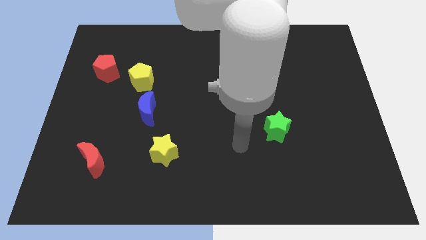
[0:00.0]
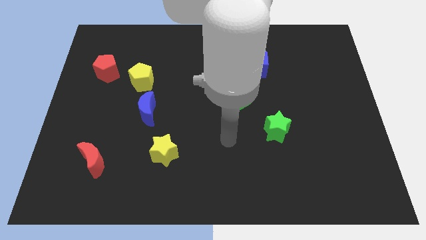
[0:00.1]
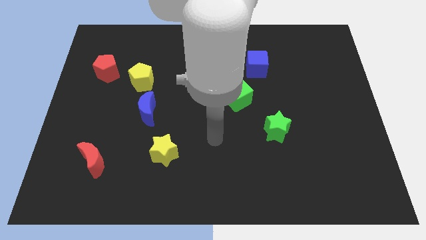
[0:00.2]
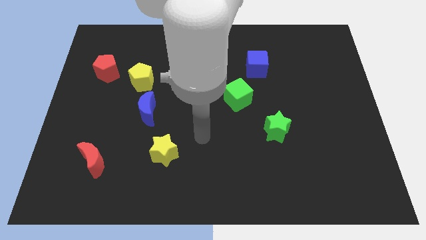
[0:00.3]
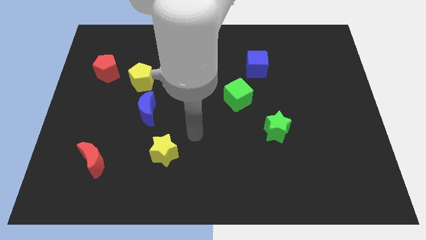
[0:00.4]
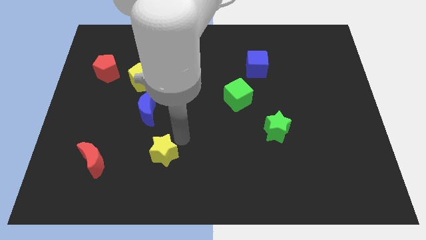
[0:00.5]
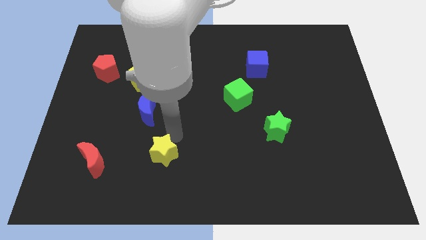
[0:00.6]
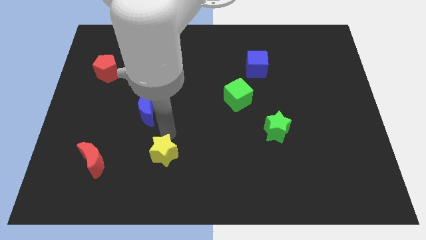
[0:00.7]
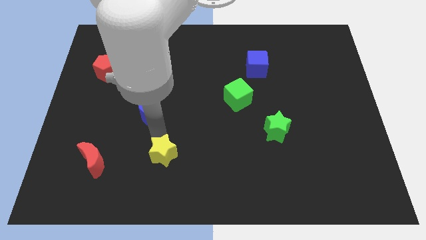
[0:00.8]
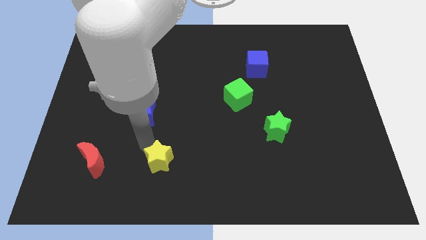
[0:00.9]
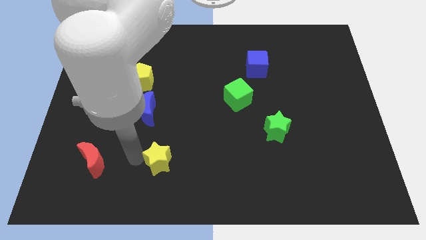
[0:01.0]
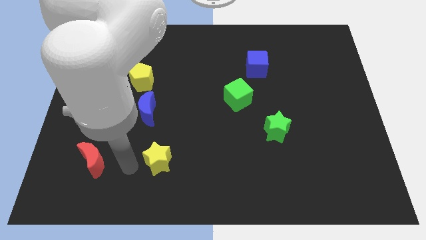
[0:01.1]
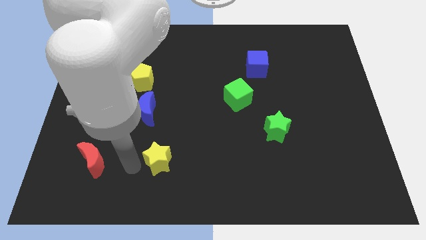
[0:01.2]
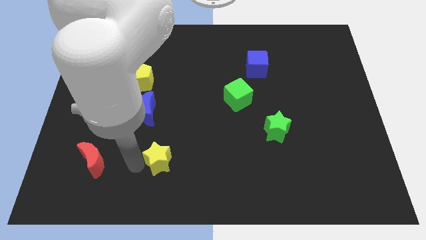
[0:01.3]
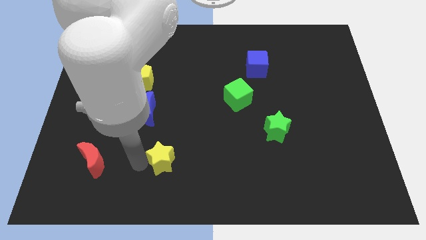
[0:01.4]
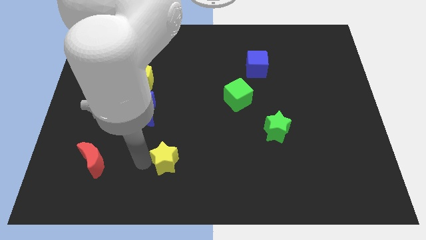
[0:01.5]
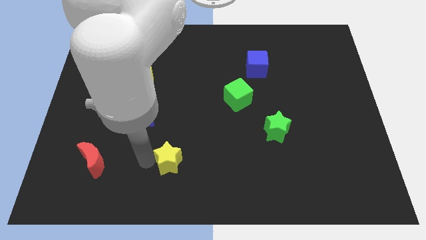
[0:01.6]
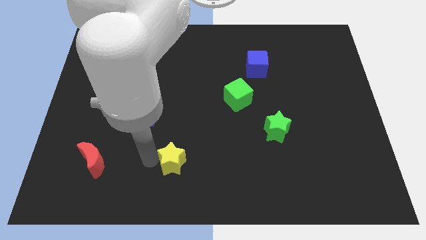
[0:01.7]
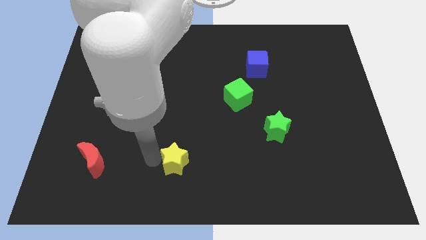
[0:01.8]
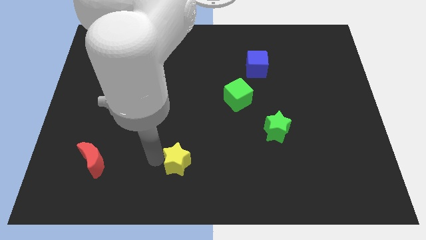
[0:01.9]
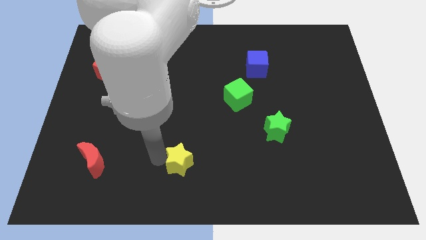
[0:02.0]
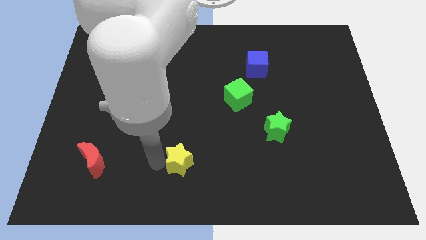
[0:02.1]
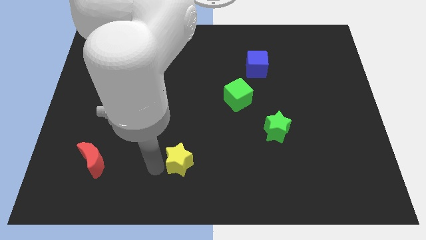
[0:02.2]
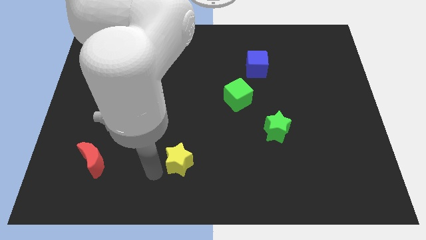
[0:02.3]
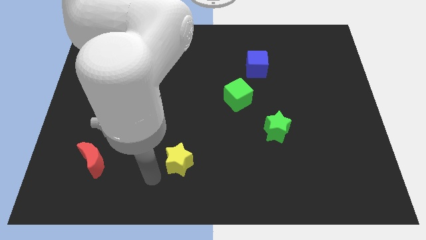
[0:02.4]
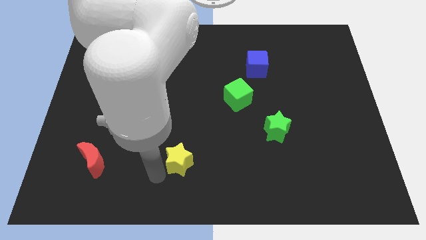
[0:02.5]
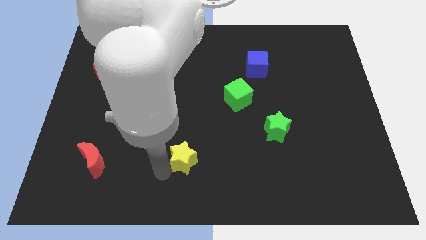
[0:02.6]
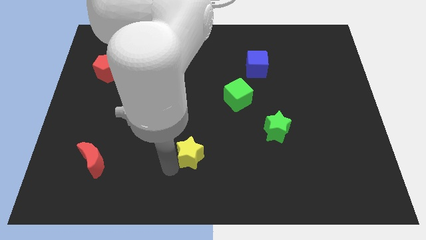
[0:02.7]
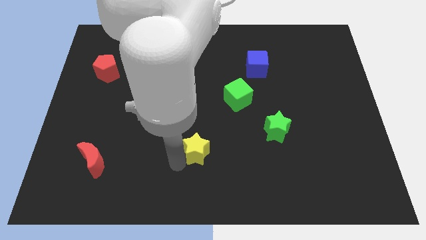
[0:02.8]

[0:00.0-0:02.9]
slightly move the yellow star to the right

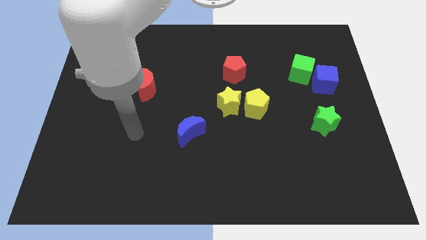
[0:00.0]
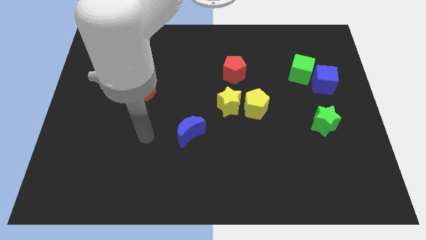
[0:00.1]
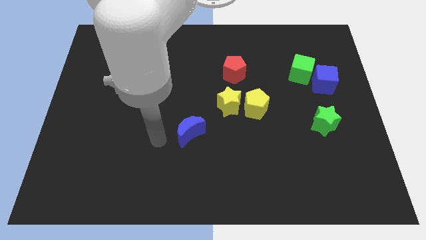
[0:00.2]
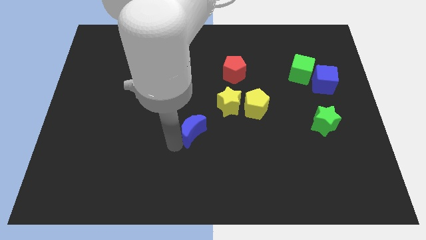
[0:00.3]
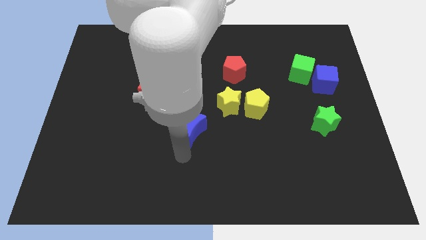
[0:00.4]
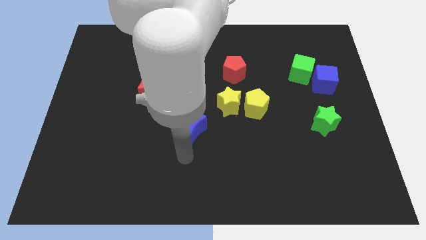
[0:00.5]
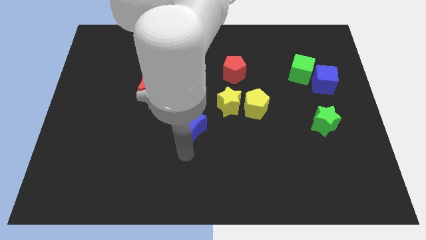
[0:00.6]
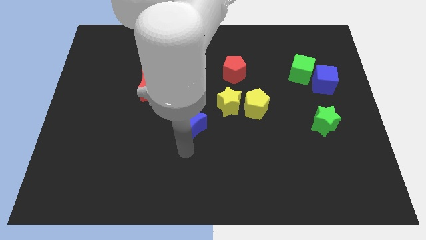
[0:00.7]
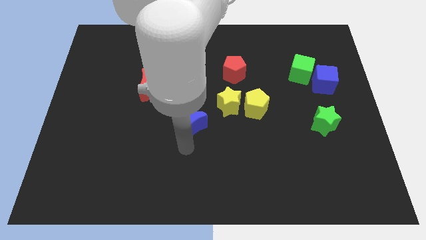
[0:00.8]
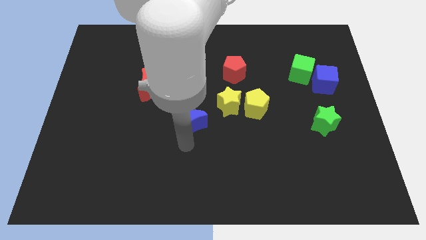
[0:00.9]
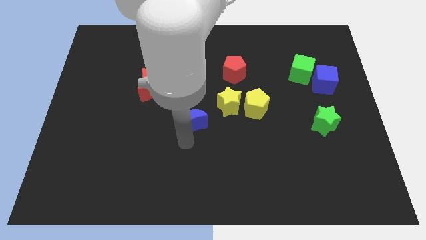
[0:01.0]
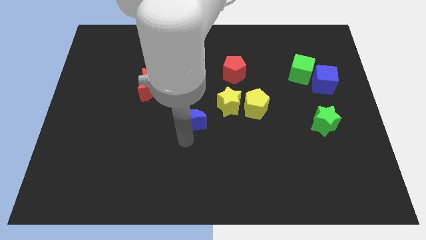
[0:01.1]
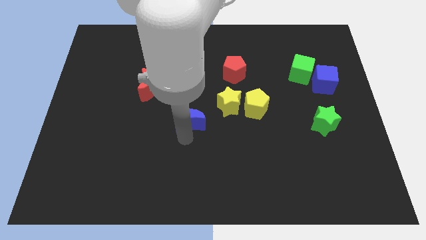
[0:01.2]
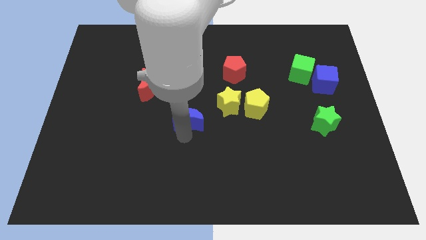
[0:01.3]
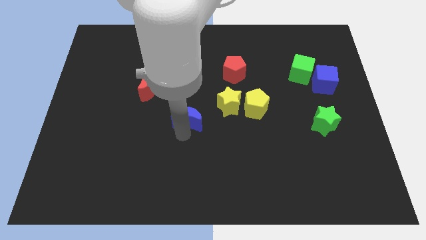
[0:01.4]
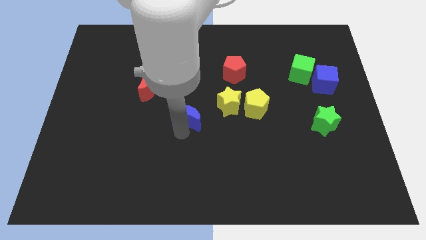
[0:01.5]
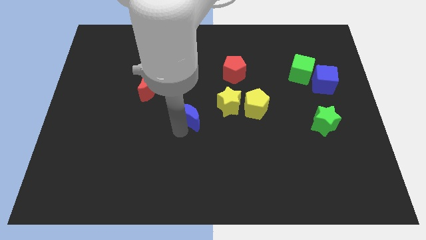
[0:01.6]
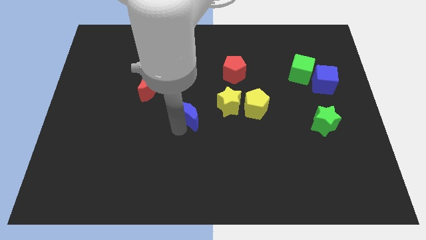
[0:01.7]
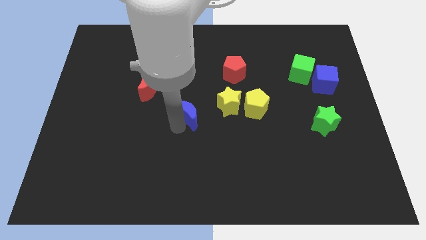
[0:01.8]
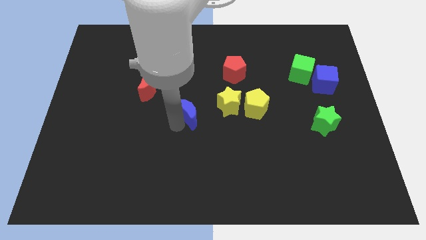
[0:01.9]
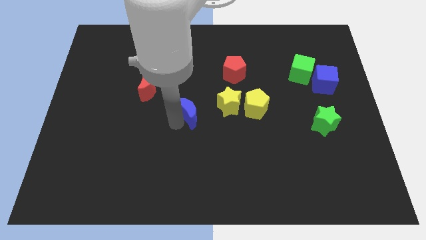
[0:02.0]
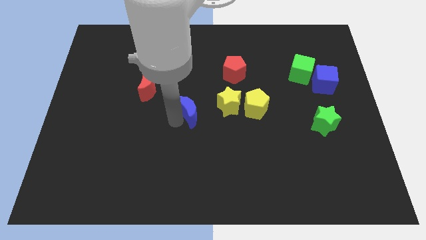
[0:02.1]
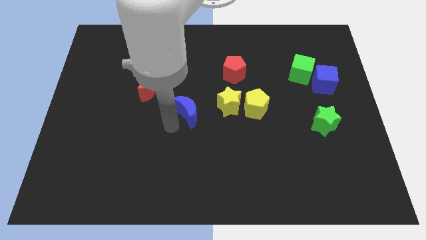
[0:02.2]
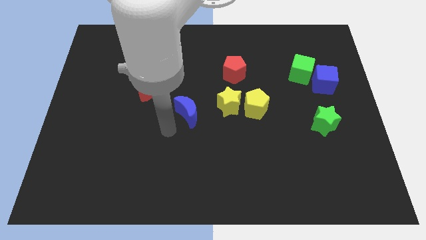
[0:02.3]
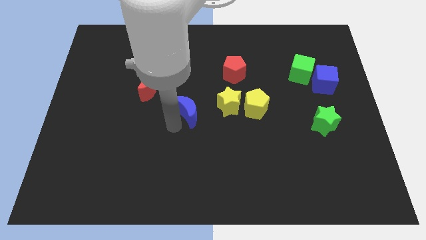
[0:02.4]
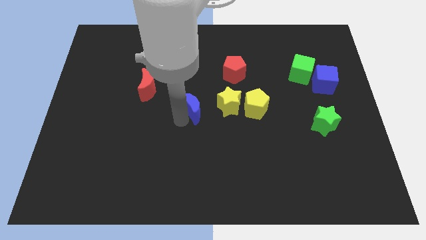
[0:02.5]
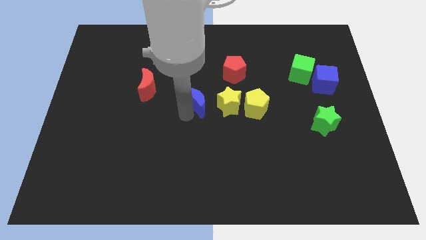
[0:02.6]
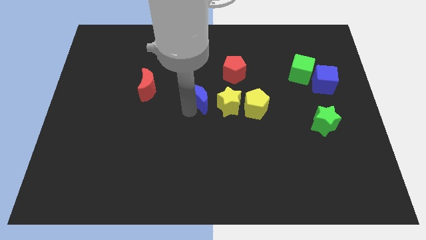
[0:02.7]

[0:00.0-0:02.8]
push the blue moon a little bit diagonally upwards and right

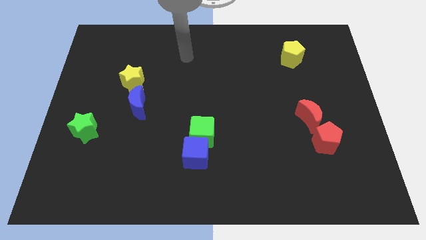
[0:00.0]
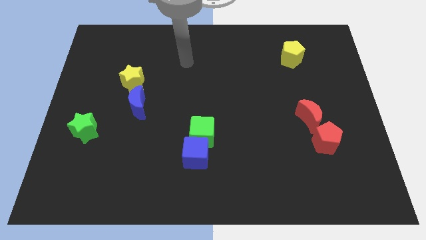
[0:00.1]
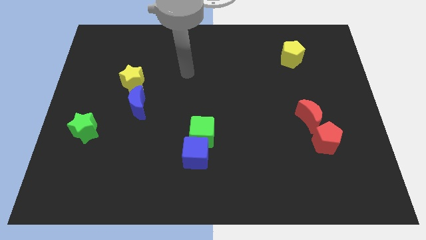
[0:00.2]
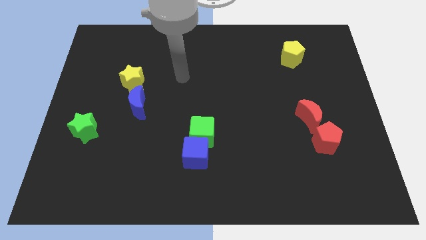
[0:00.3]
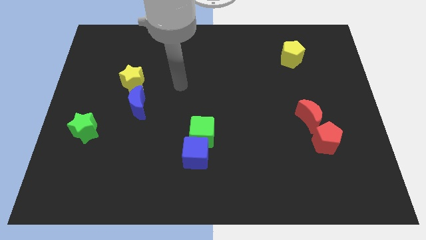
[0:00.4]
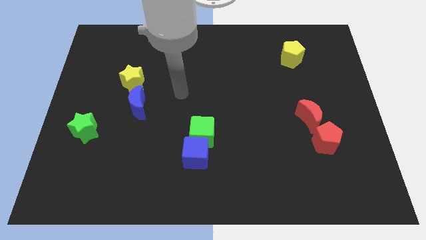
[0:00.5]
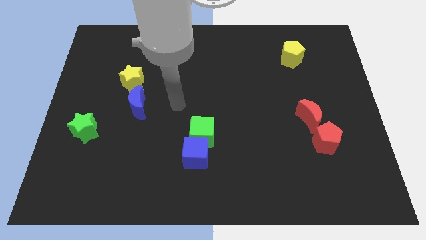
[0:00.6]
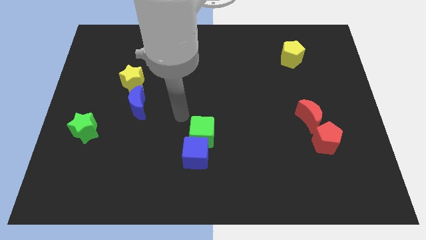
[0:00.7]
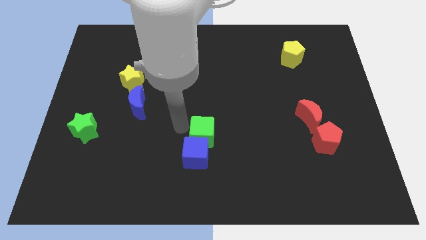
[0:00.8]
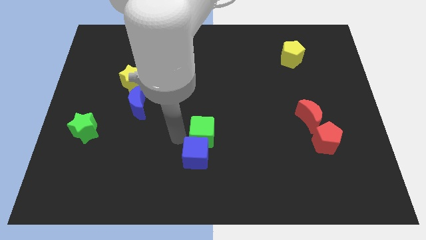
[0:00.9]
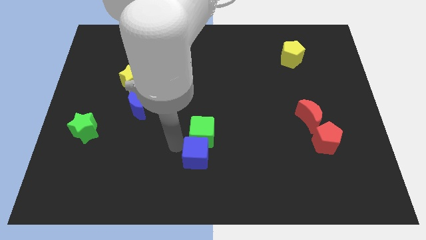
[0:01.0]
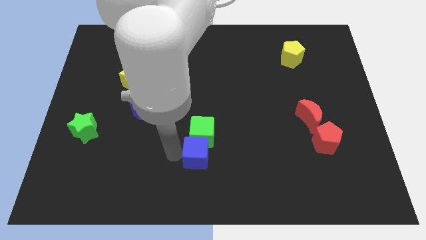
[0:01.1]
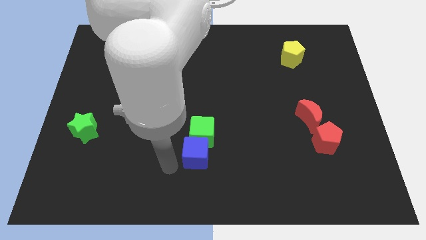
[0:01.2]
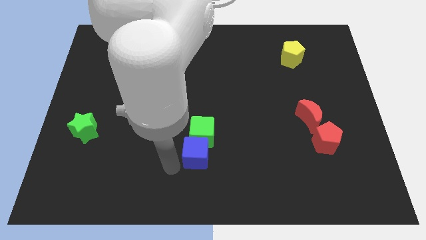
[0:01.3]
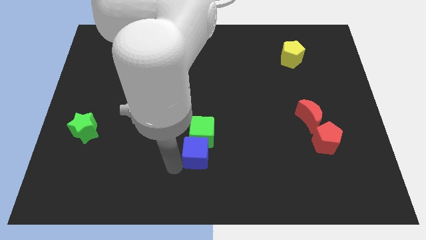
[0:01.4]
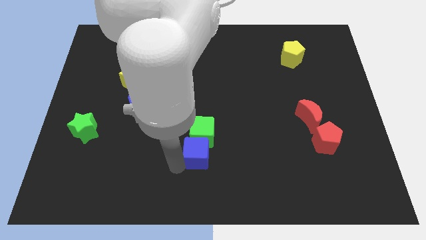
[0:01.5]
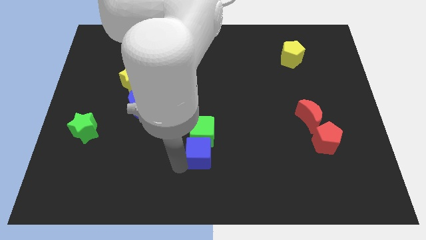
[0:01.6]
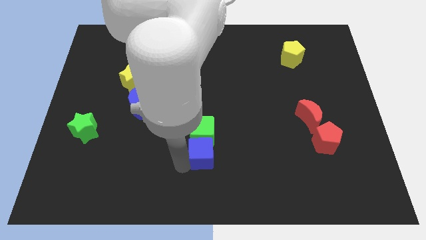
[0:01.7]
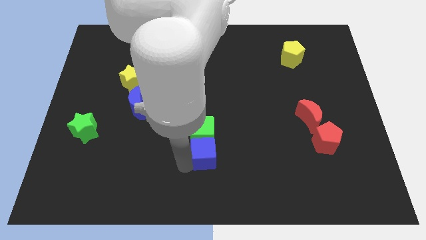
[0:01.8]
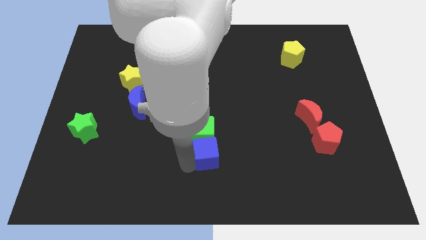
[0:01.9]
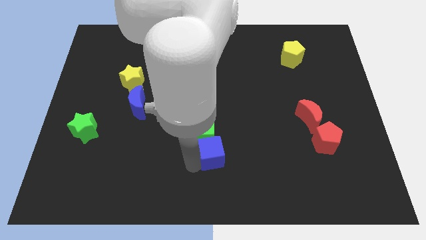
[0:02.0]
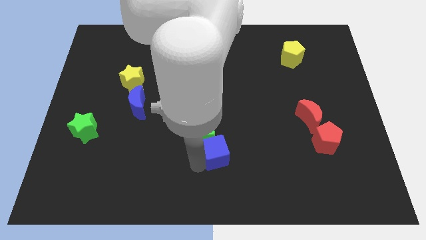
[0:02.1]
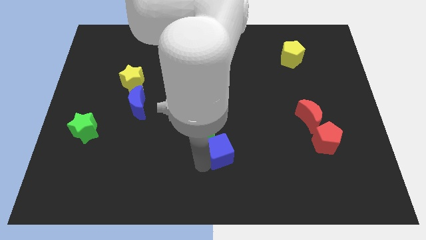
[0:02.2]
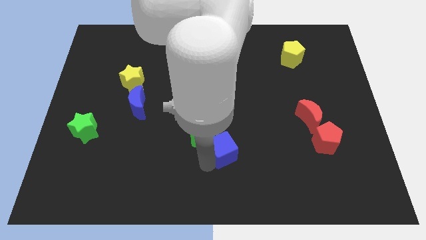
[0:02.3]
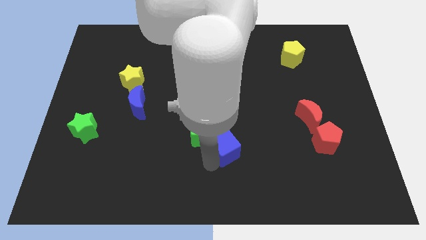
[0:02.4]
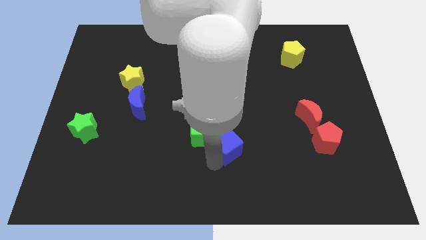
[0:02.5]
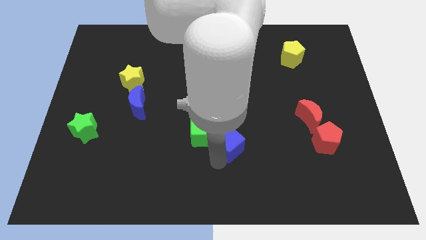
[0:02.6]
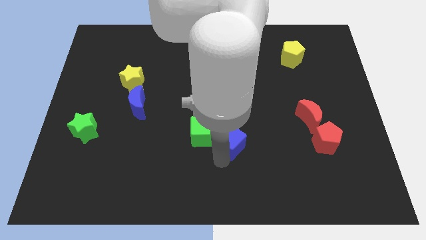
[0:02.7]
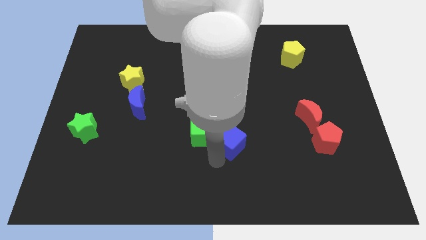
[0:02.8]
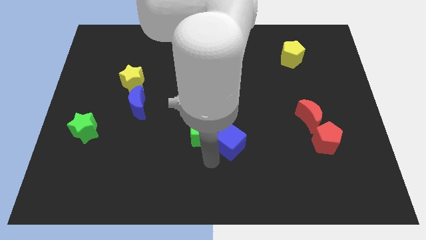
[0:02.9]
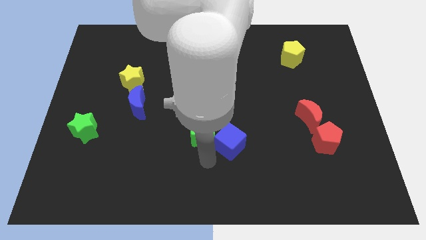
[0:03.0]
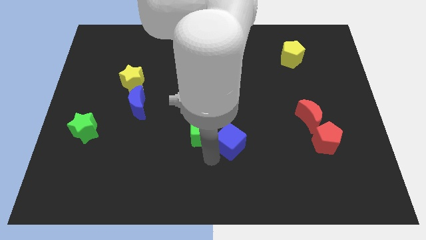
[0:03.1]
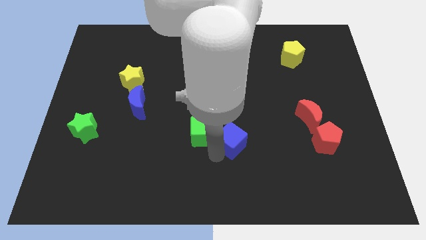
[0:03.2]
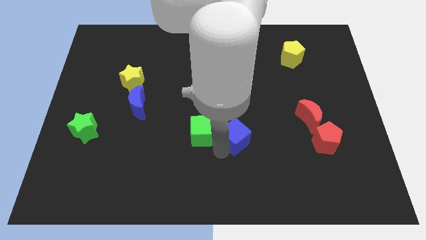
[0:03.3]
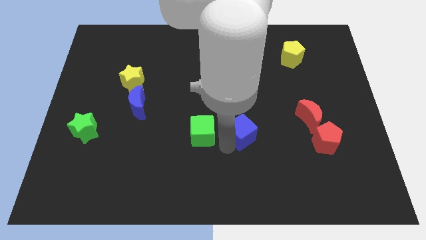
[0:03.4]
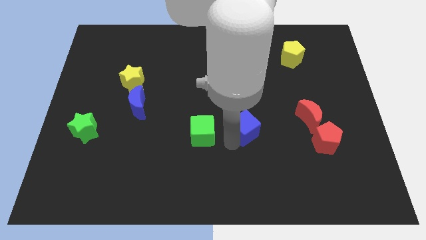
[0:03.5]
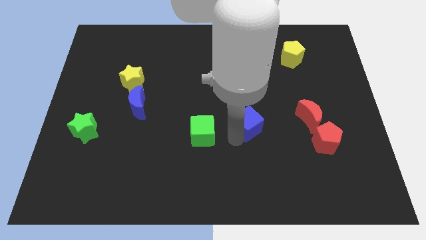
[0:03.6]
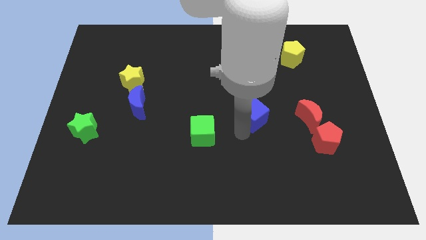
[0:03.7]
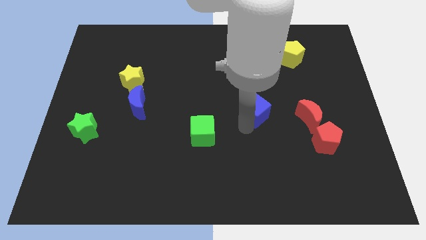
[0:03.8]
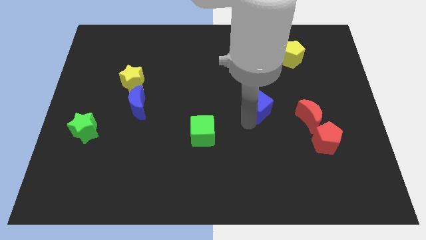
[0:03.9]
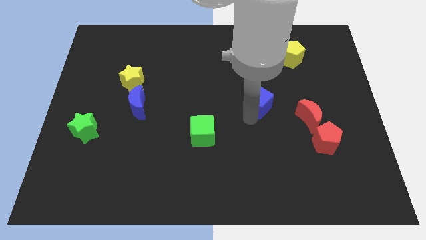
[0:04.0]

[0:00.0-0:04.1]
push the blue cube diagonally up and to the right
